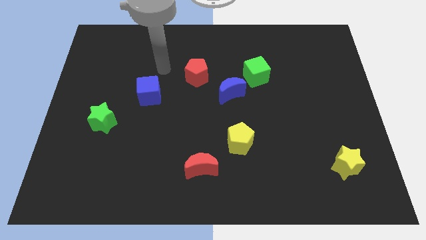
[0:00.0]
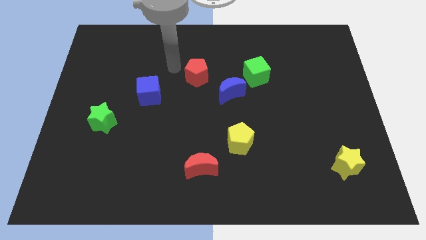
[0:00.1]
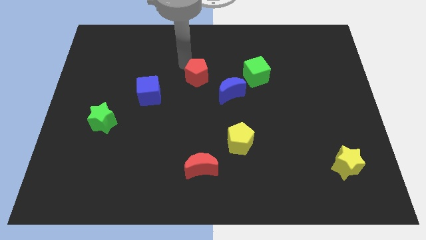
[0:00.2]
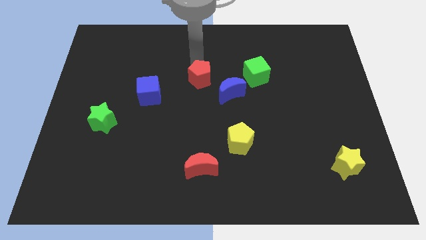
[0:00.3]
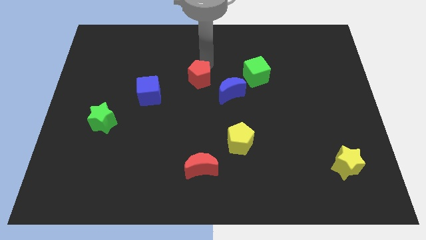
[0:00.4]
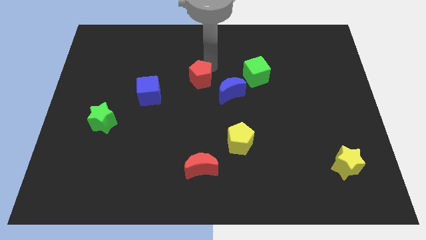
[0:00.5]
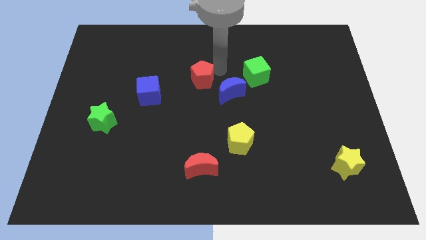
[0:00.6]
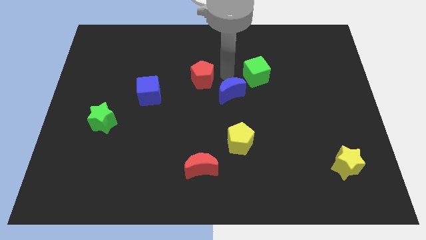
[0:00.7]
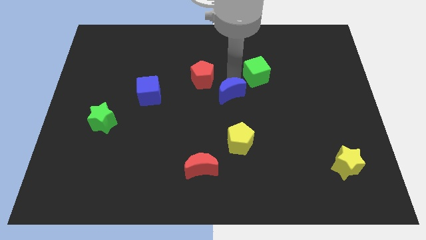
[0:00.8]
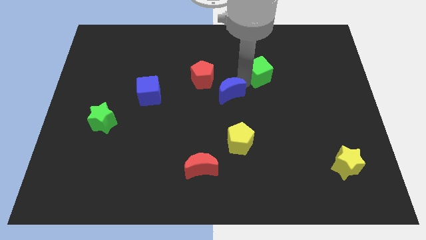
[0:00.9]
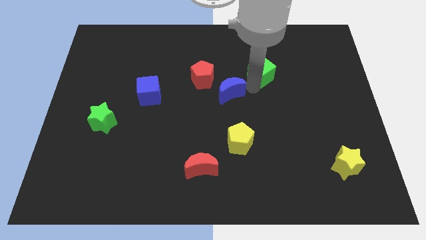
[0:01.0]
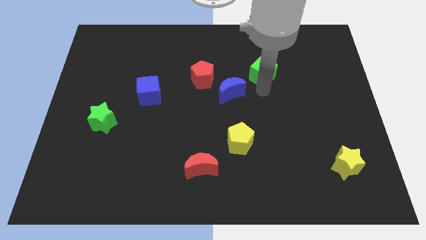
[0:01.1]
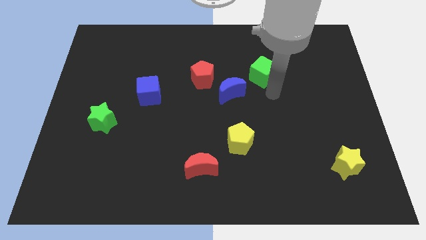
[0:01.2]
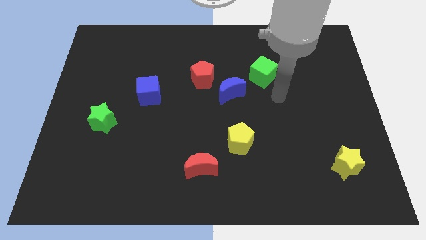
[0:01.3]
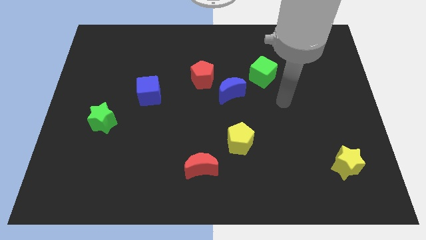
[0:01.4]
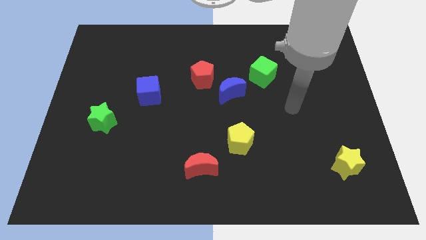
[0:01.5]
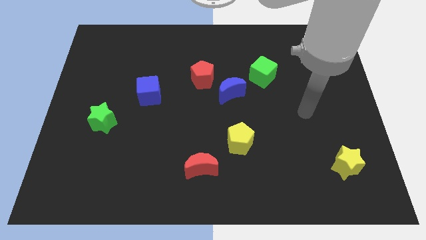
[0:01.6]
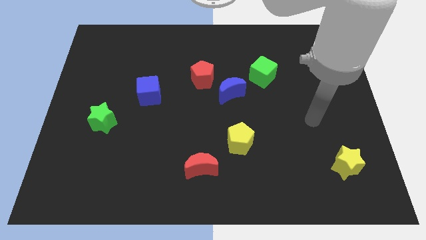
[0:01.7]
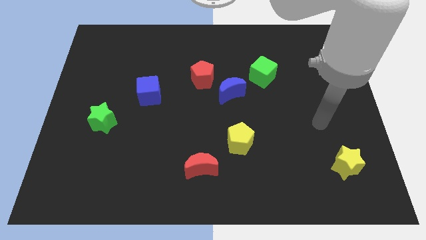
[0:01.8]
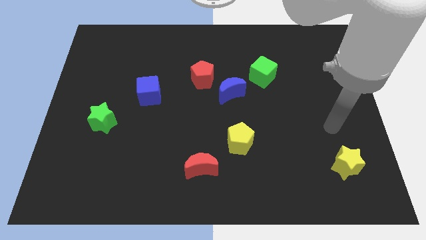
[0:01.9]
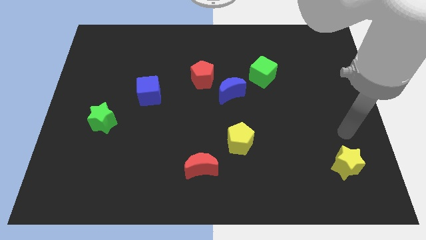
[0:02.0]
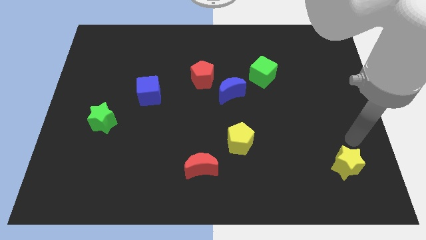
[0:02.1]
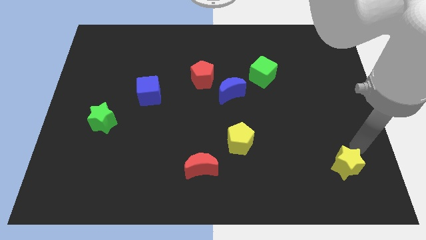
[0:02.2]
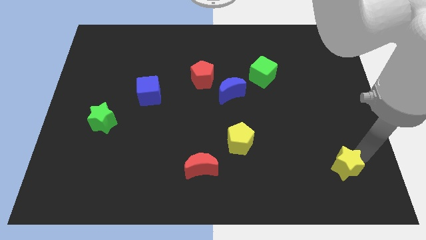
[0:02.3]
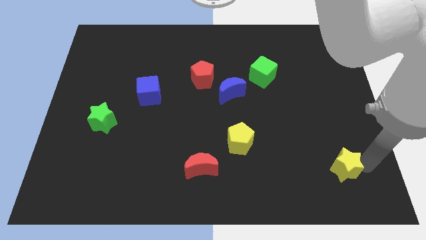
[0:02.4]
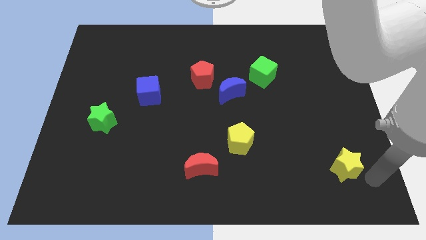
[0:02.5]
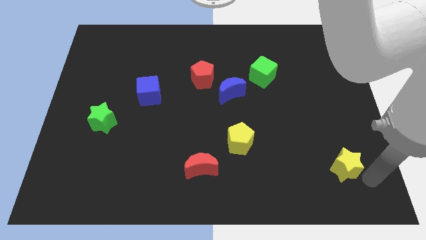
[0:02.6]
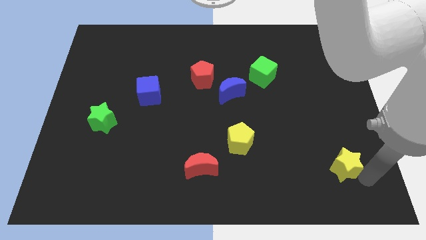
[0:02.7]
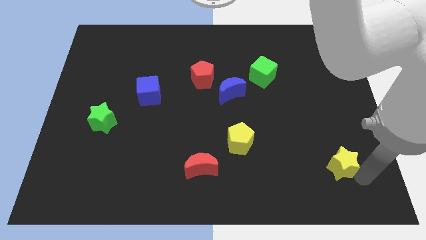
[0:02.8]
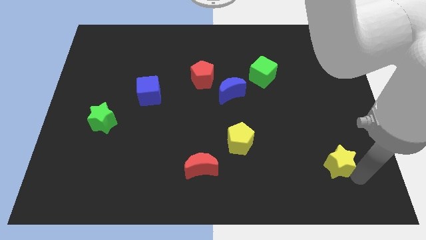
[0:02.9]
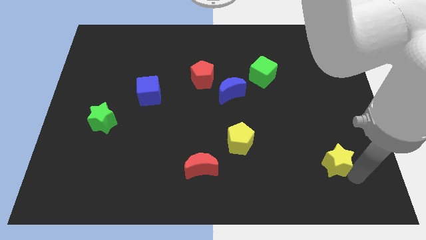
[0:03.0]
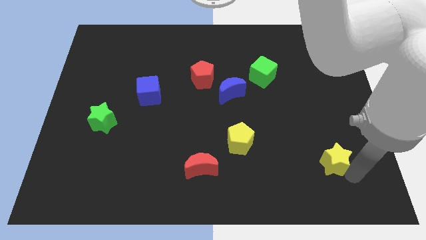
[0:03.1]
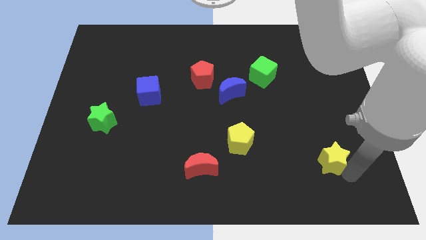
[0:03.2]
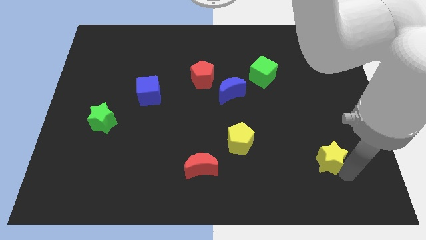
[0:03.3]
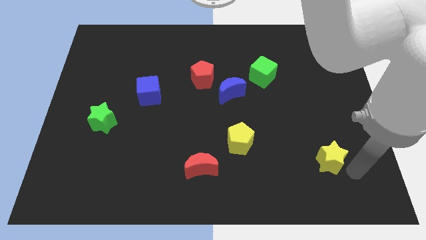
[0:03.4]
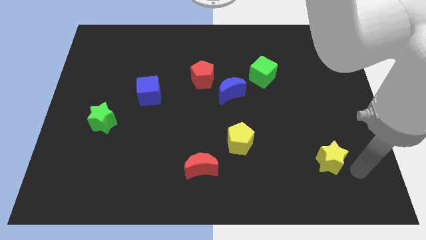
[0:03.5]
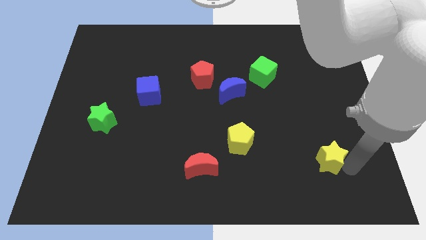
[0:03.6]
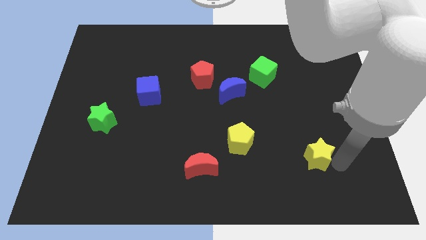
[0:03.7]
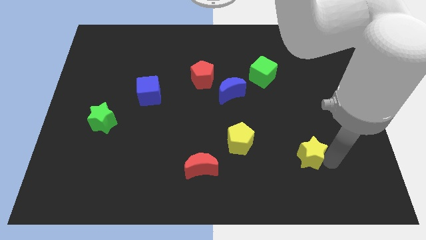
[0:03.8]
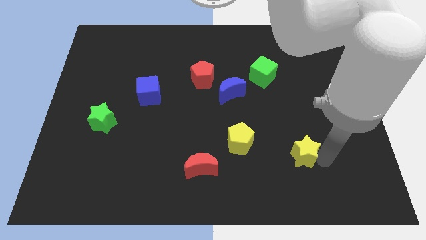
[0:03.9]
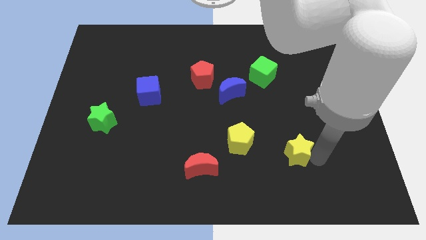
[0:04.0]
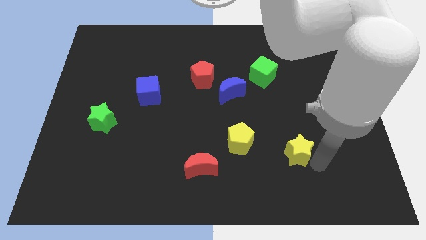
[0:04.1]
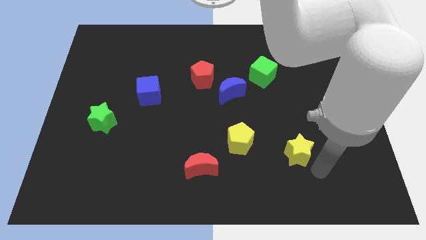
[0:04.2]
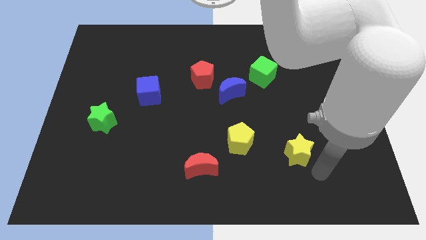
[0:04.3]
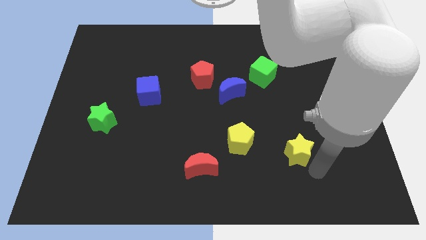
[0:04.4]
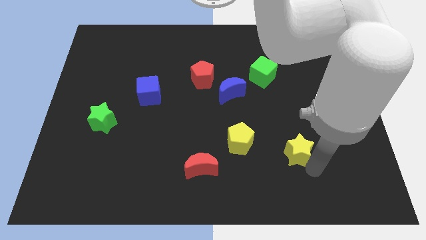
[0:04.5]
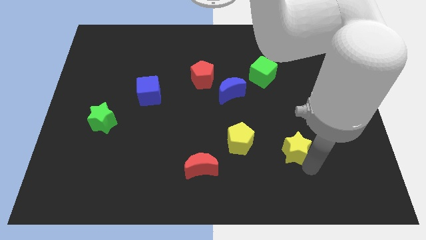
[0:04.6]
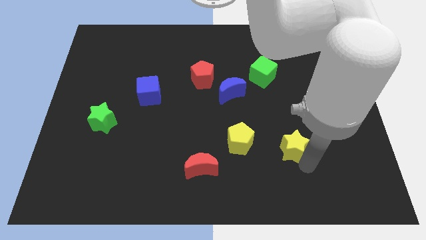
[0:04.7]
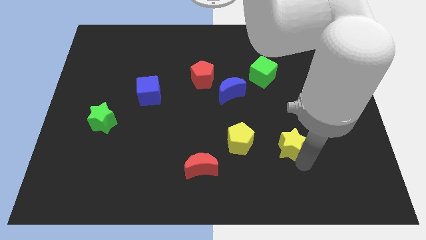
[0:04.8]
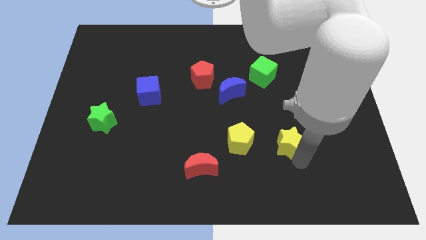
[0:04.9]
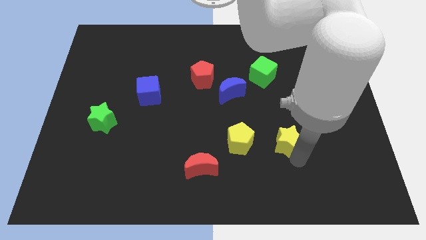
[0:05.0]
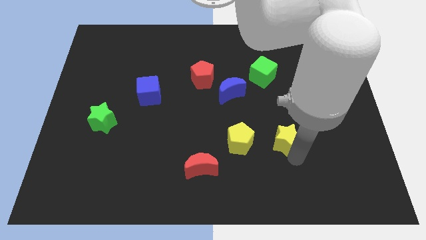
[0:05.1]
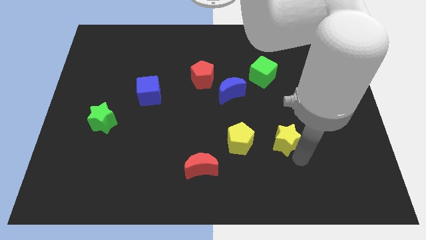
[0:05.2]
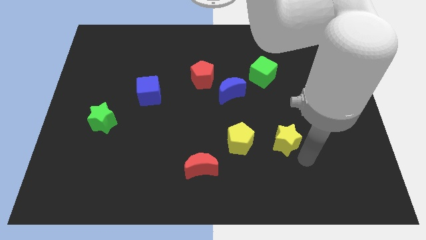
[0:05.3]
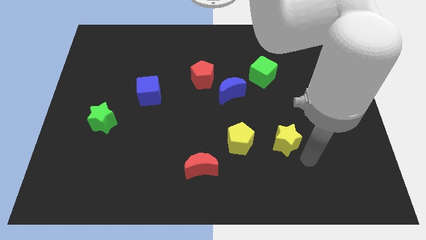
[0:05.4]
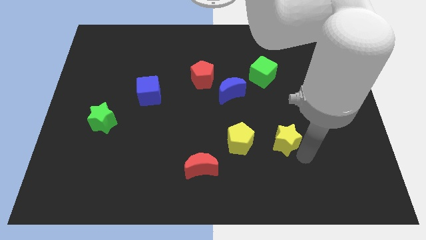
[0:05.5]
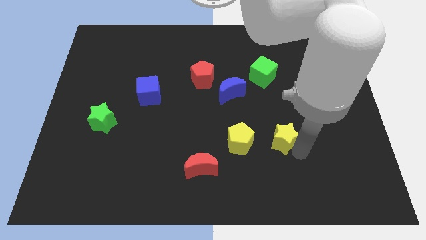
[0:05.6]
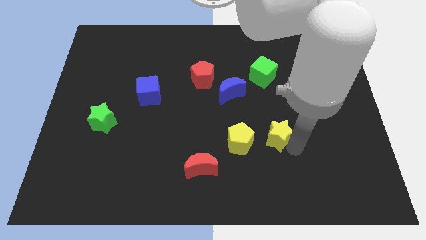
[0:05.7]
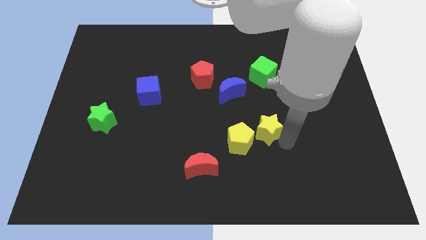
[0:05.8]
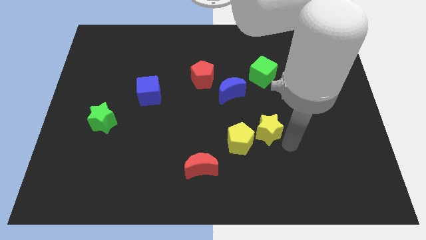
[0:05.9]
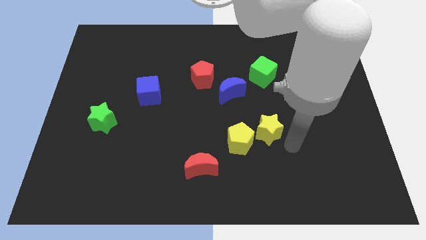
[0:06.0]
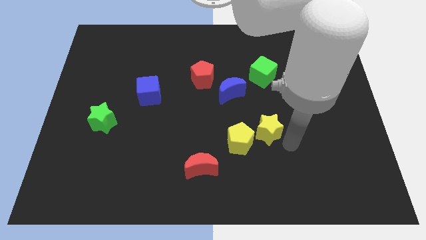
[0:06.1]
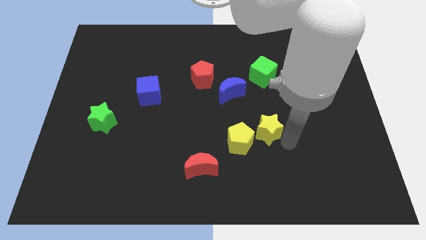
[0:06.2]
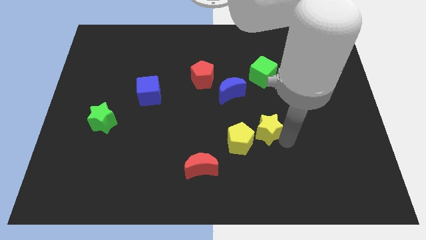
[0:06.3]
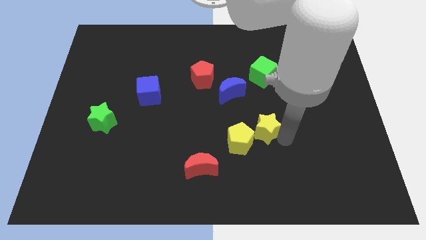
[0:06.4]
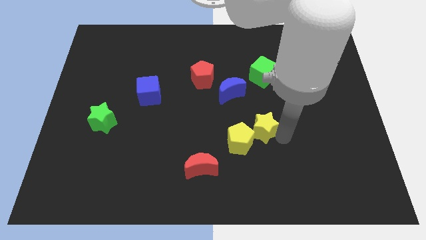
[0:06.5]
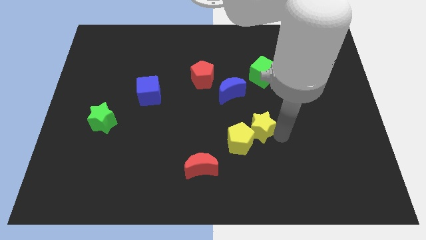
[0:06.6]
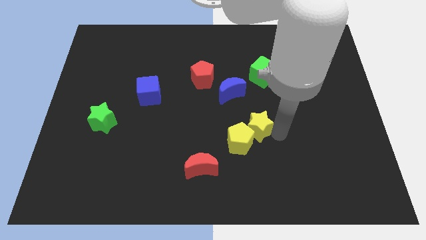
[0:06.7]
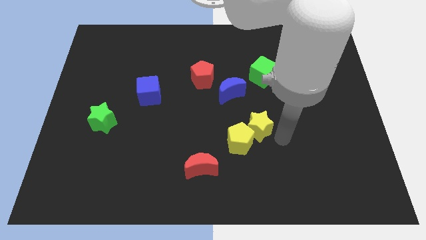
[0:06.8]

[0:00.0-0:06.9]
move the yellow star to the center
